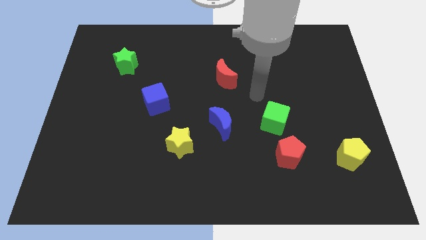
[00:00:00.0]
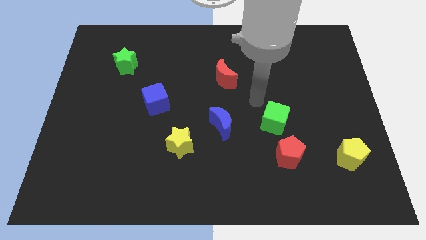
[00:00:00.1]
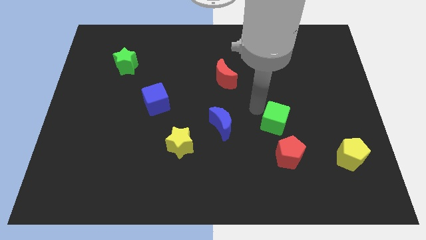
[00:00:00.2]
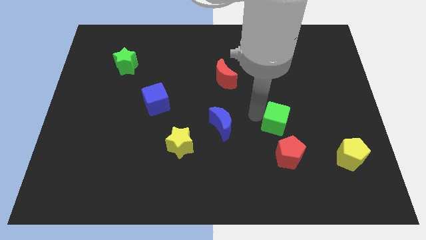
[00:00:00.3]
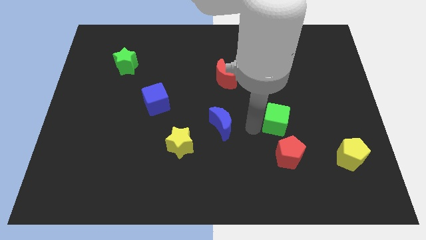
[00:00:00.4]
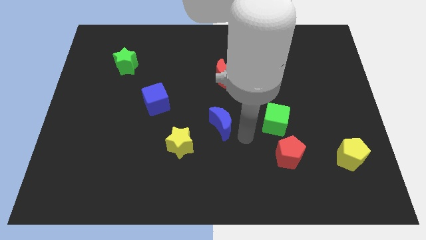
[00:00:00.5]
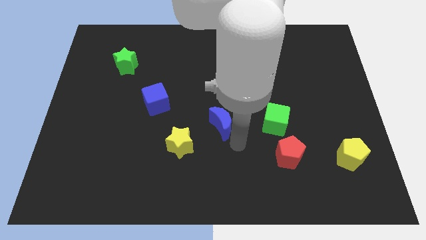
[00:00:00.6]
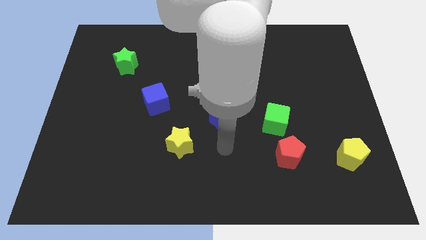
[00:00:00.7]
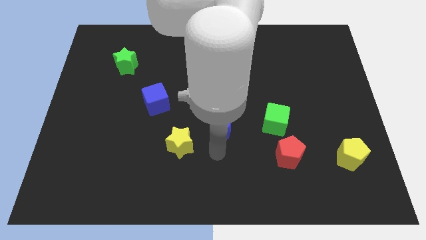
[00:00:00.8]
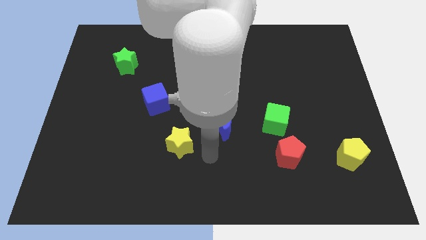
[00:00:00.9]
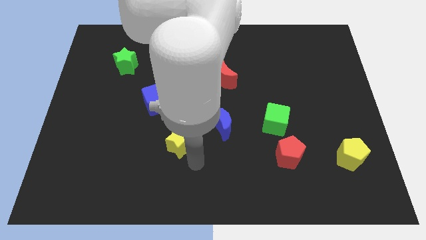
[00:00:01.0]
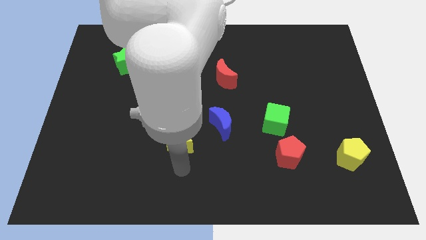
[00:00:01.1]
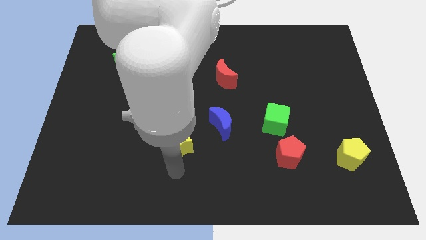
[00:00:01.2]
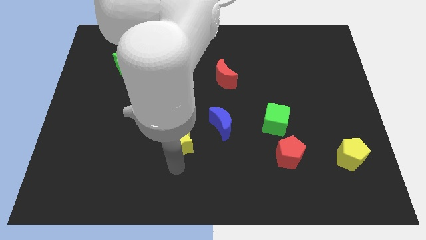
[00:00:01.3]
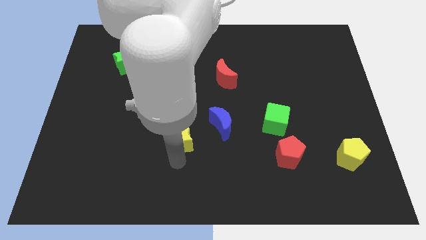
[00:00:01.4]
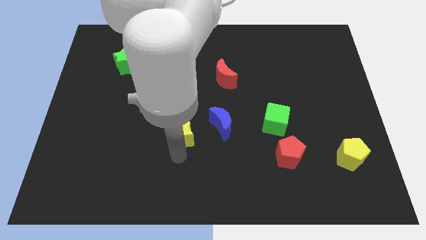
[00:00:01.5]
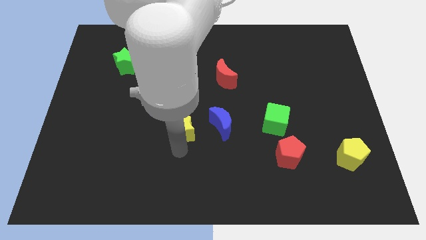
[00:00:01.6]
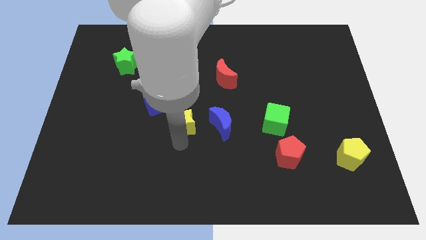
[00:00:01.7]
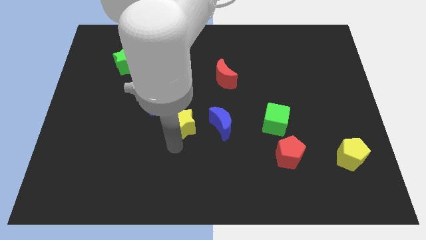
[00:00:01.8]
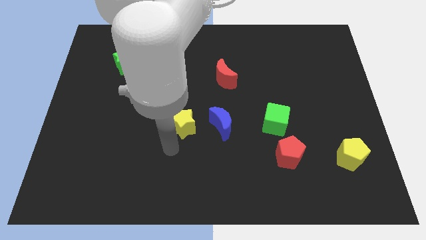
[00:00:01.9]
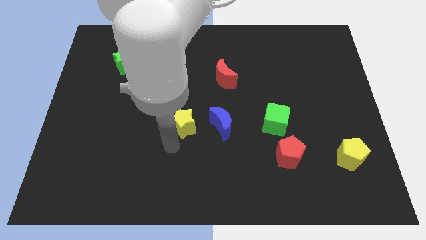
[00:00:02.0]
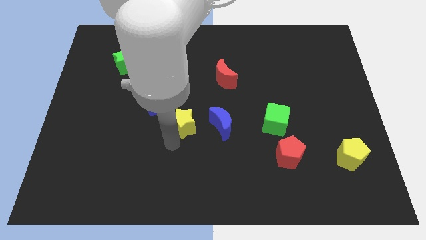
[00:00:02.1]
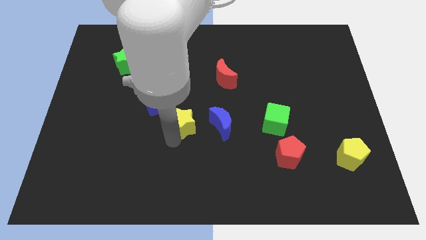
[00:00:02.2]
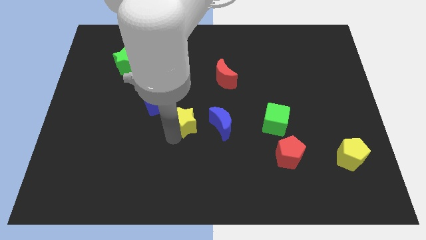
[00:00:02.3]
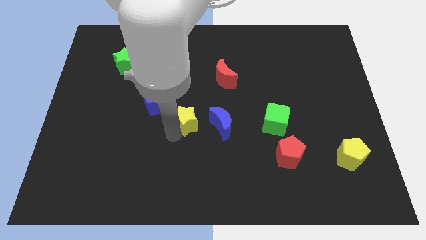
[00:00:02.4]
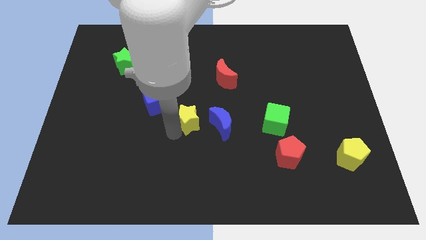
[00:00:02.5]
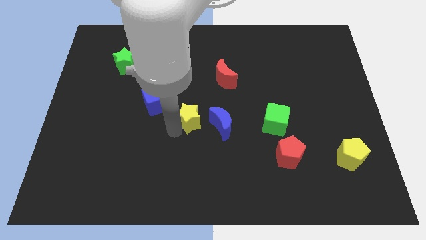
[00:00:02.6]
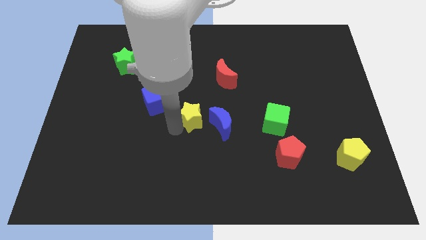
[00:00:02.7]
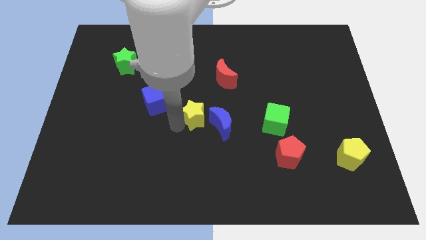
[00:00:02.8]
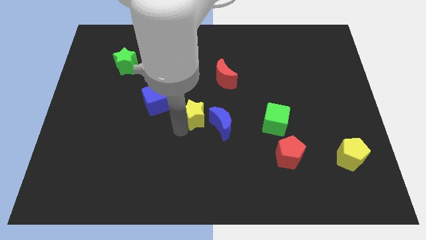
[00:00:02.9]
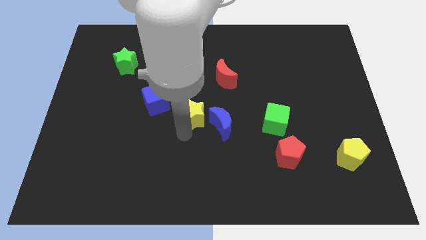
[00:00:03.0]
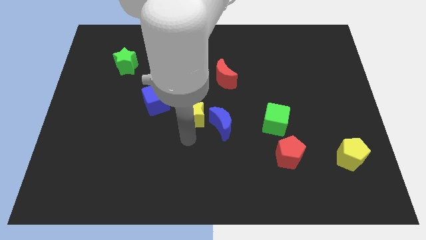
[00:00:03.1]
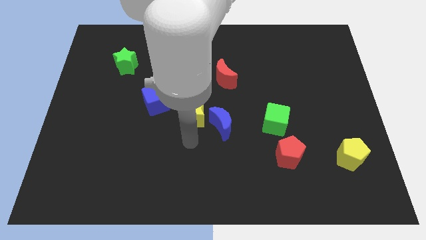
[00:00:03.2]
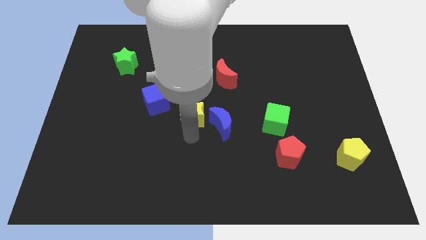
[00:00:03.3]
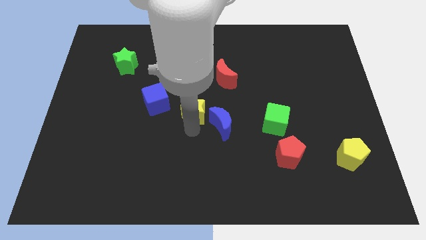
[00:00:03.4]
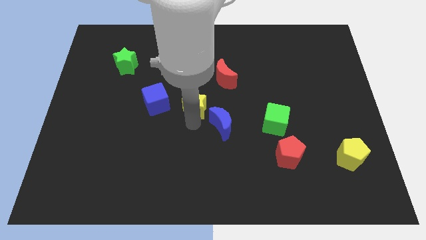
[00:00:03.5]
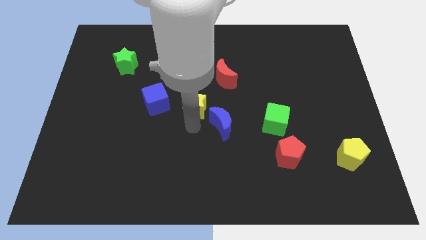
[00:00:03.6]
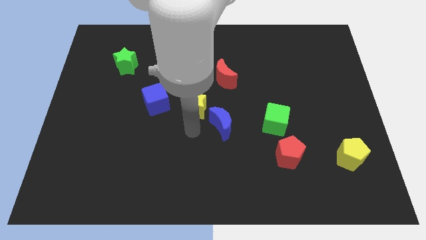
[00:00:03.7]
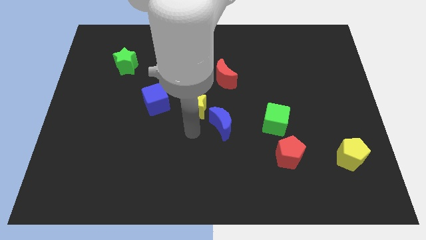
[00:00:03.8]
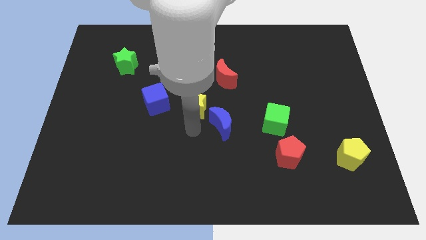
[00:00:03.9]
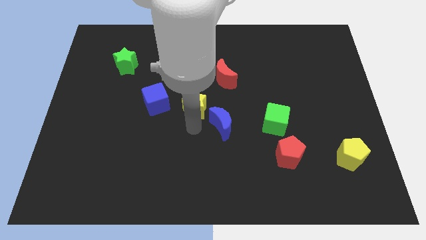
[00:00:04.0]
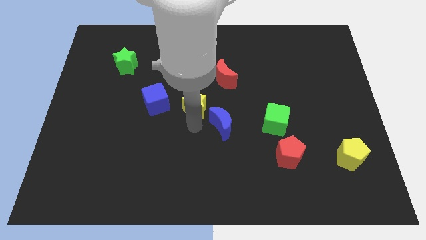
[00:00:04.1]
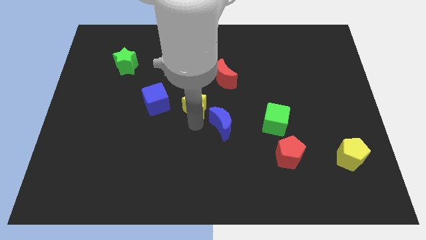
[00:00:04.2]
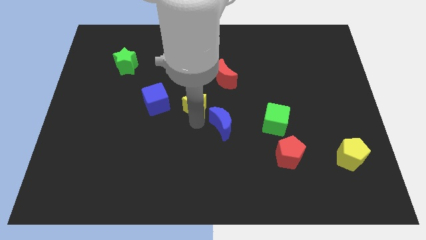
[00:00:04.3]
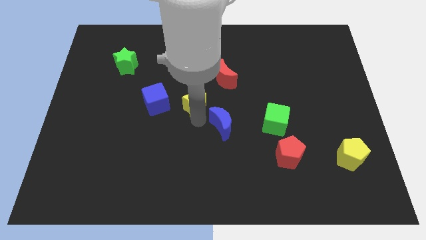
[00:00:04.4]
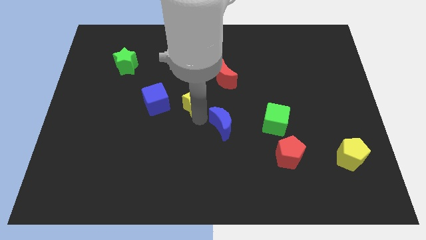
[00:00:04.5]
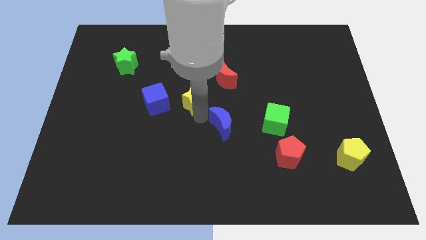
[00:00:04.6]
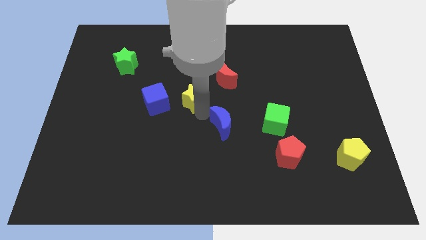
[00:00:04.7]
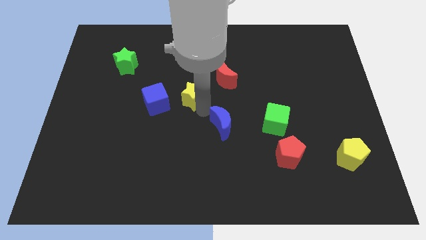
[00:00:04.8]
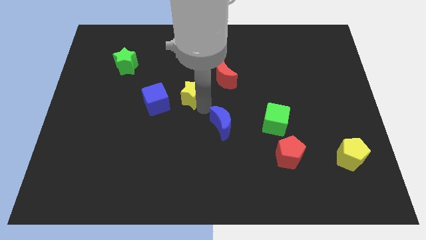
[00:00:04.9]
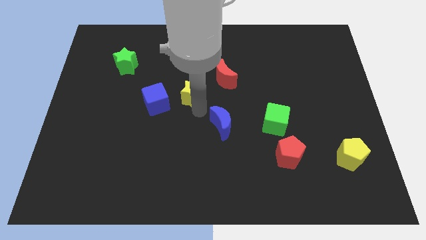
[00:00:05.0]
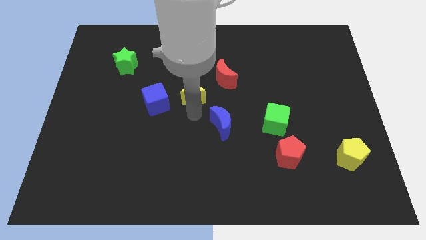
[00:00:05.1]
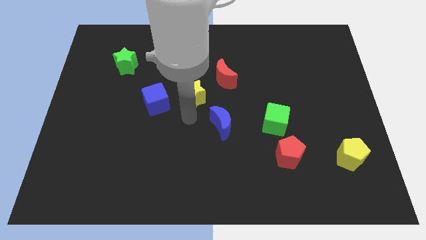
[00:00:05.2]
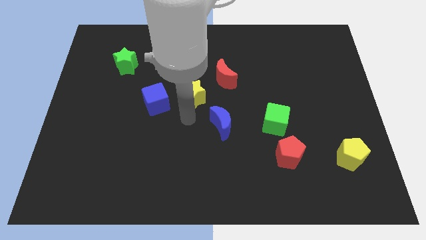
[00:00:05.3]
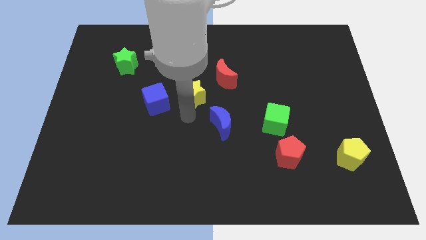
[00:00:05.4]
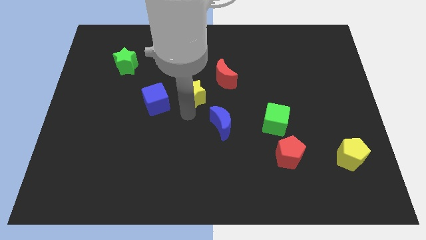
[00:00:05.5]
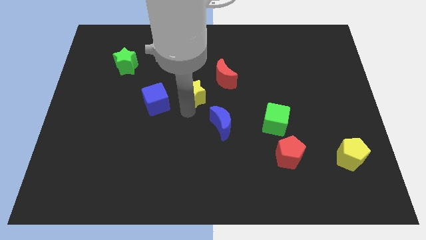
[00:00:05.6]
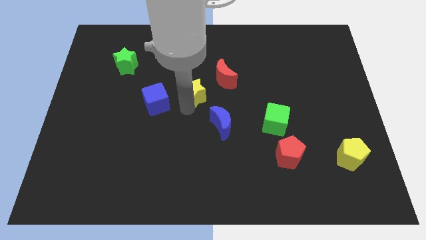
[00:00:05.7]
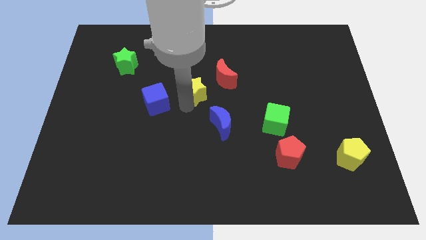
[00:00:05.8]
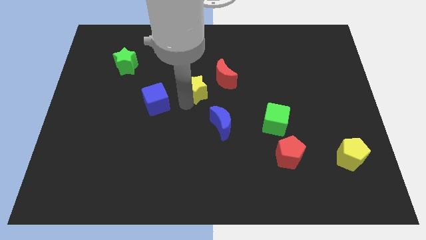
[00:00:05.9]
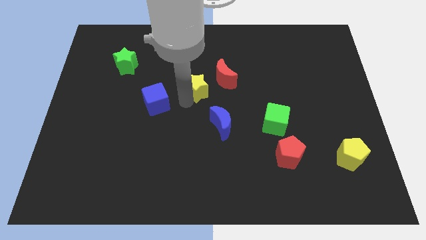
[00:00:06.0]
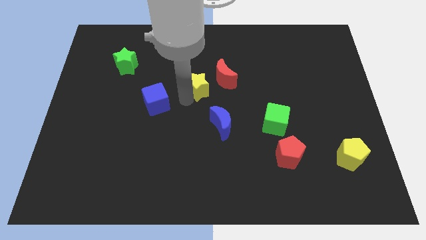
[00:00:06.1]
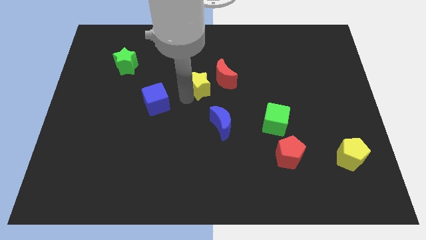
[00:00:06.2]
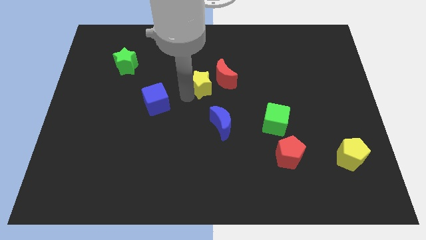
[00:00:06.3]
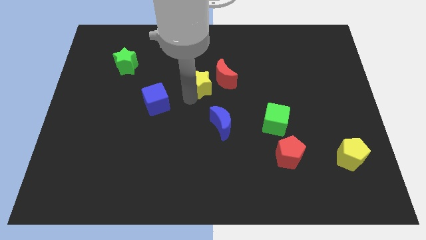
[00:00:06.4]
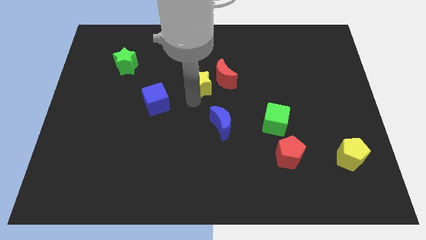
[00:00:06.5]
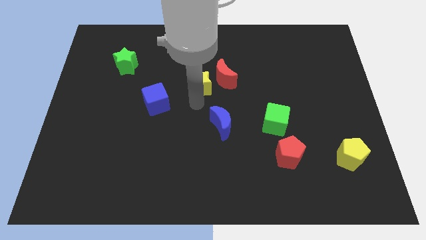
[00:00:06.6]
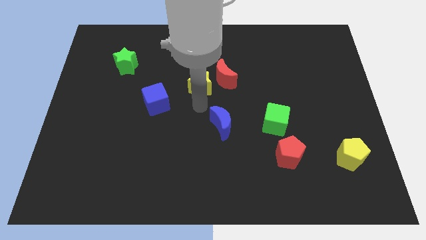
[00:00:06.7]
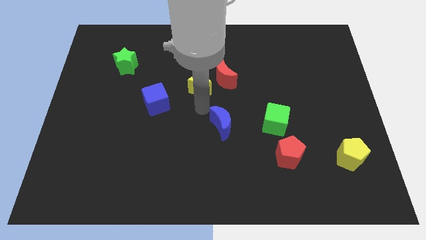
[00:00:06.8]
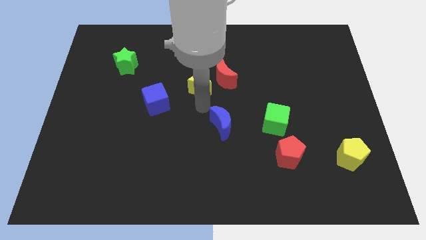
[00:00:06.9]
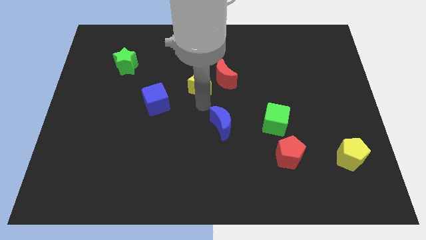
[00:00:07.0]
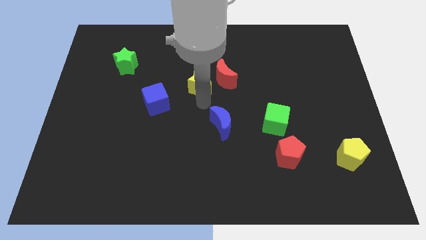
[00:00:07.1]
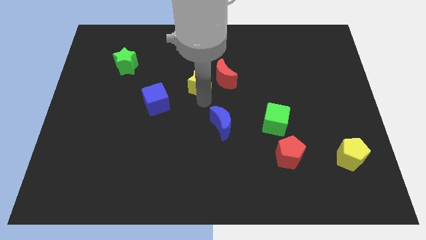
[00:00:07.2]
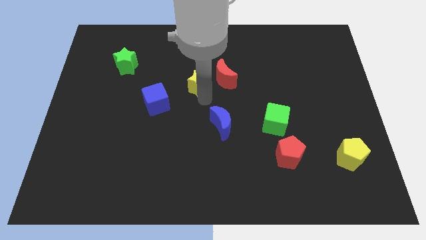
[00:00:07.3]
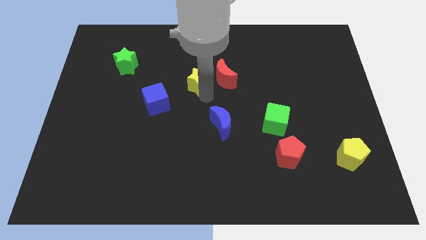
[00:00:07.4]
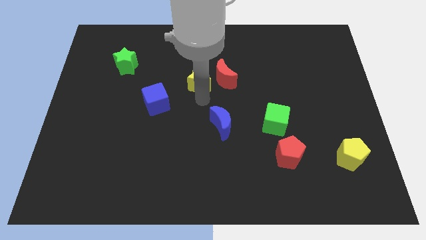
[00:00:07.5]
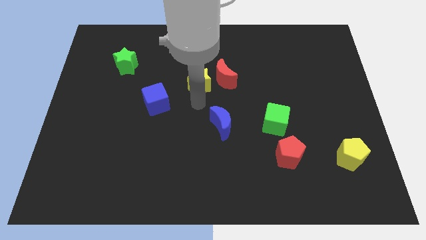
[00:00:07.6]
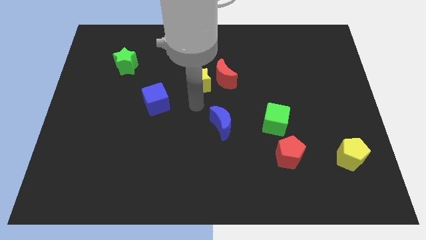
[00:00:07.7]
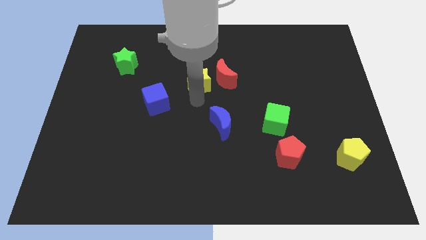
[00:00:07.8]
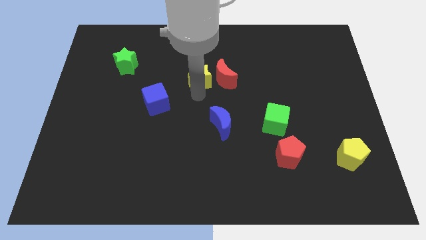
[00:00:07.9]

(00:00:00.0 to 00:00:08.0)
slide the yellow star to the top left side of the red moon
